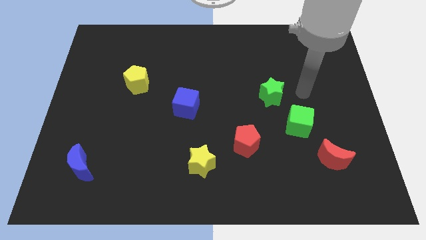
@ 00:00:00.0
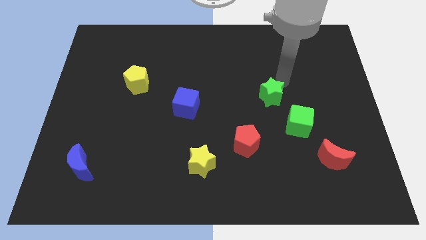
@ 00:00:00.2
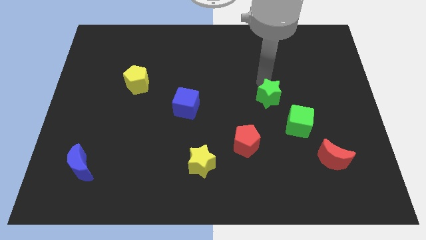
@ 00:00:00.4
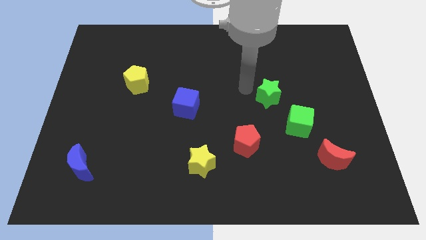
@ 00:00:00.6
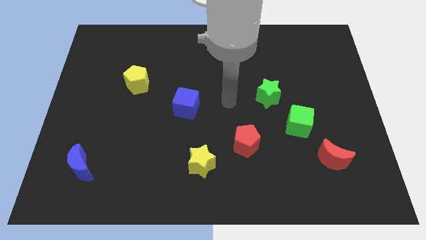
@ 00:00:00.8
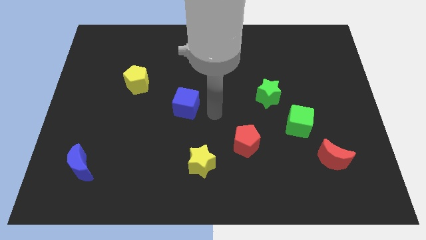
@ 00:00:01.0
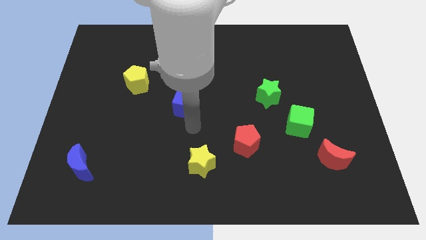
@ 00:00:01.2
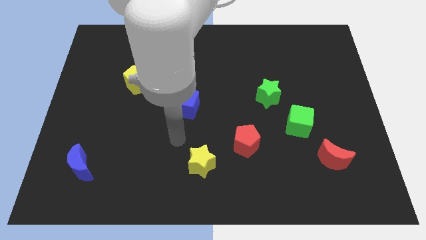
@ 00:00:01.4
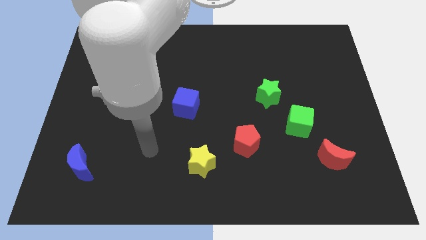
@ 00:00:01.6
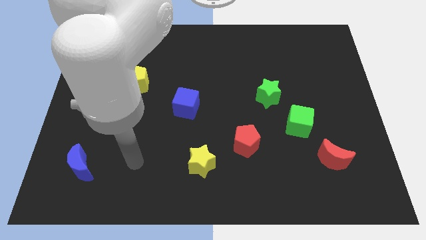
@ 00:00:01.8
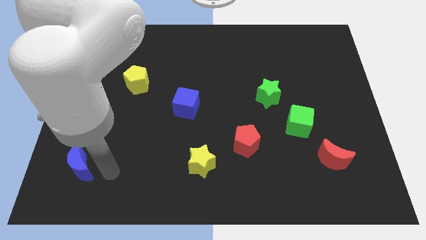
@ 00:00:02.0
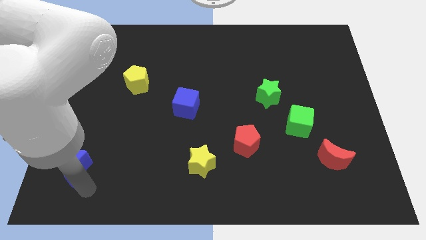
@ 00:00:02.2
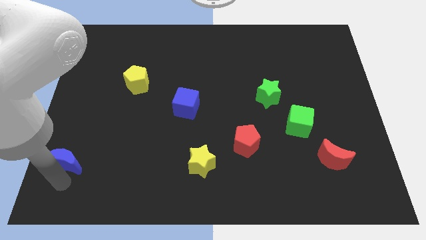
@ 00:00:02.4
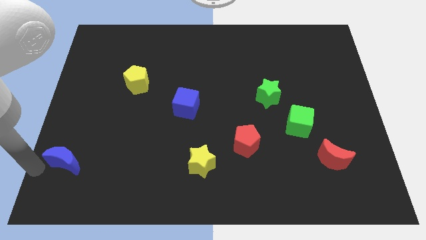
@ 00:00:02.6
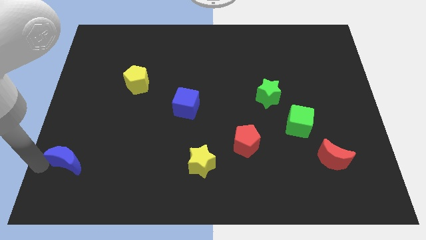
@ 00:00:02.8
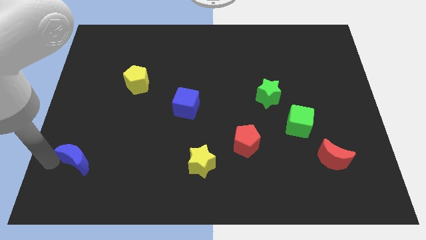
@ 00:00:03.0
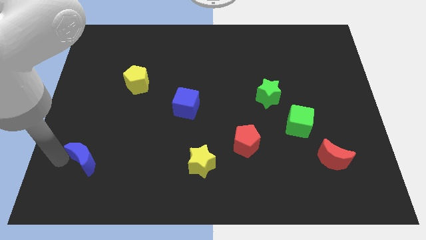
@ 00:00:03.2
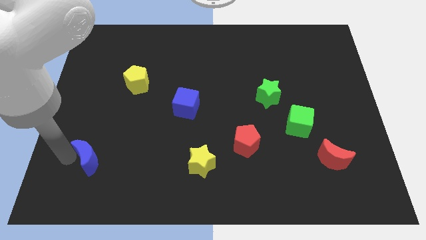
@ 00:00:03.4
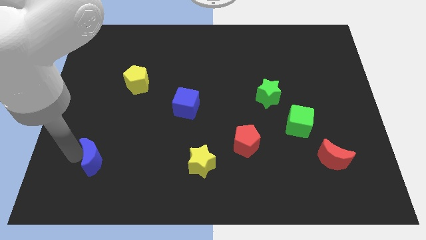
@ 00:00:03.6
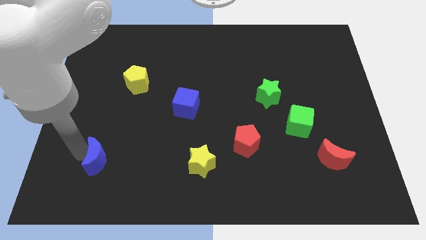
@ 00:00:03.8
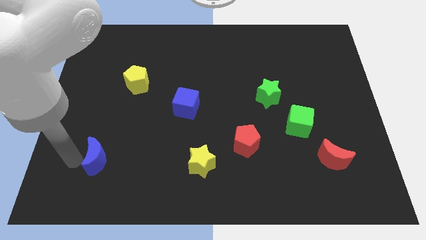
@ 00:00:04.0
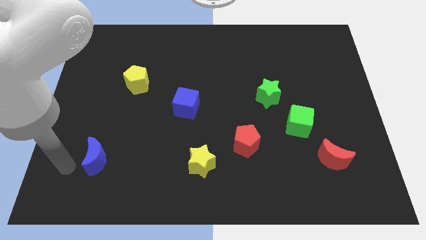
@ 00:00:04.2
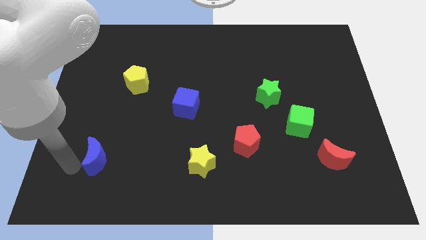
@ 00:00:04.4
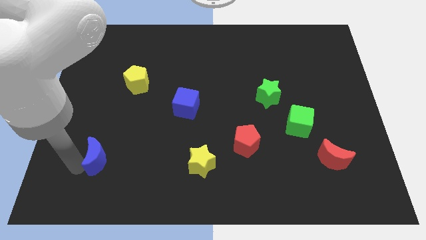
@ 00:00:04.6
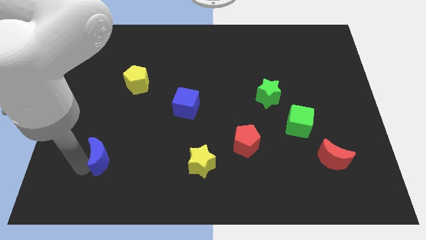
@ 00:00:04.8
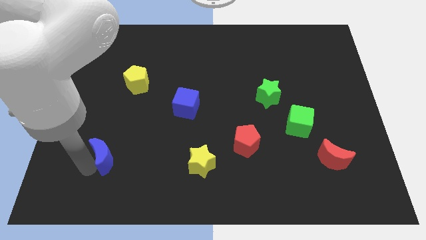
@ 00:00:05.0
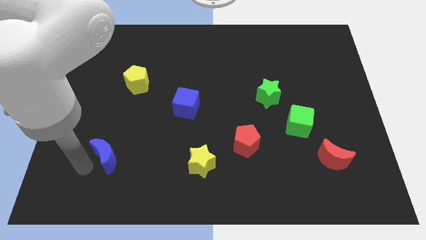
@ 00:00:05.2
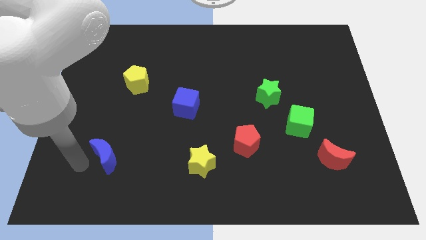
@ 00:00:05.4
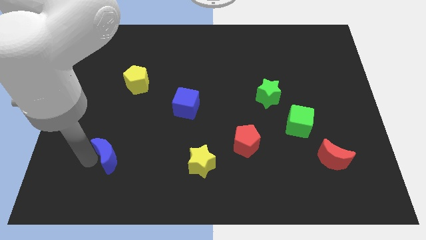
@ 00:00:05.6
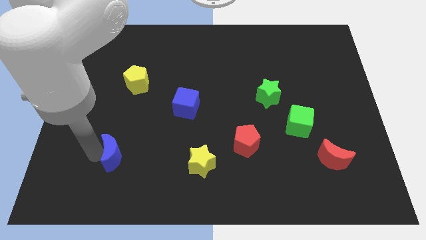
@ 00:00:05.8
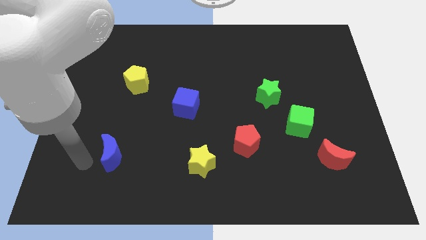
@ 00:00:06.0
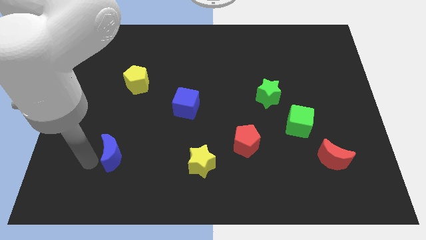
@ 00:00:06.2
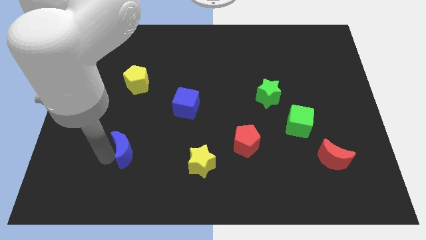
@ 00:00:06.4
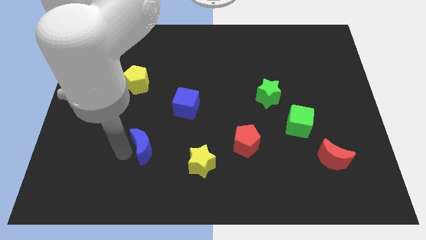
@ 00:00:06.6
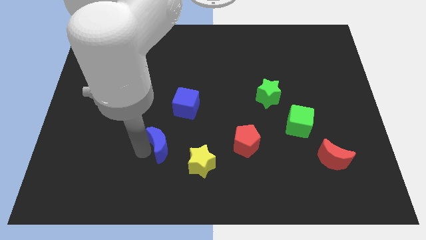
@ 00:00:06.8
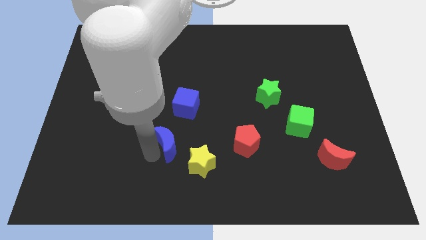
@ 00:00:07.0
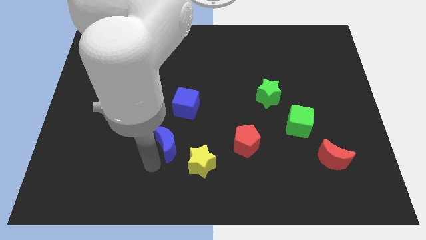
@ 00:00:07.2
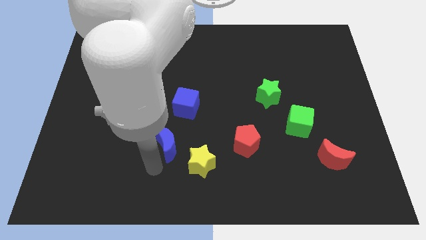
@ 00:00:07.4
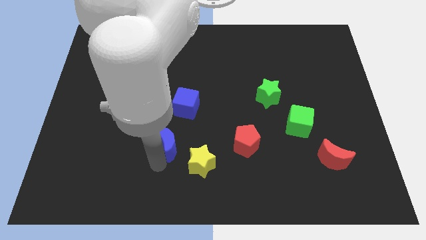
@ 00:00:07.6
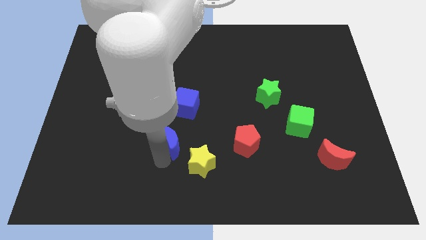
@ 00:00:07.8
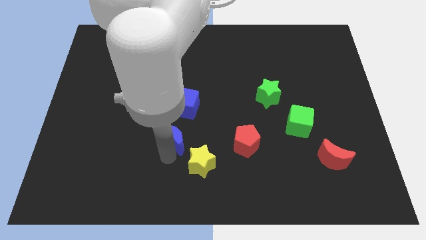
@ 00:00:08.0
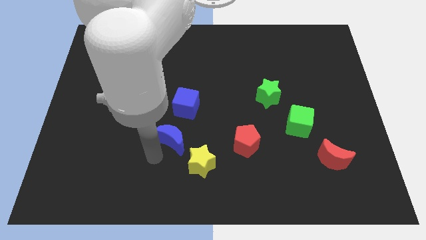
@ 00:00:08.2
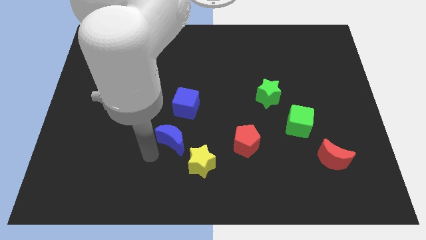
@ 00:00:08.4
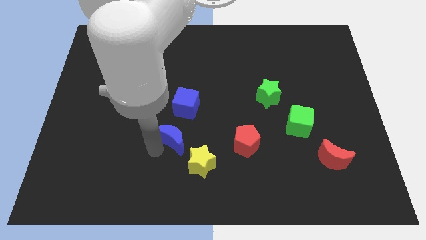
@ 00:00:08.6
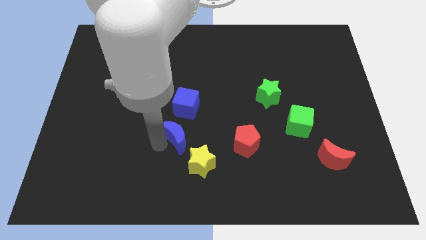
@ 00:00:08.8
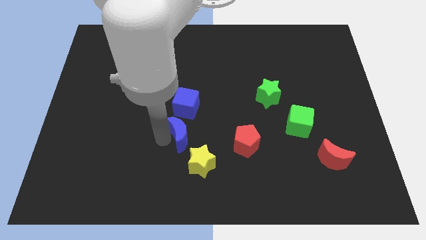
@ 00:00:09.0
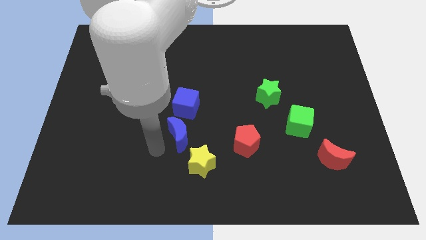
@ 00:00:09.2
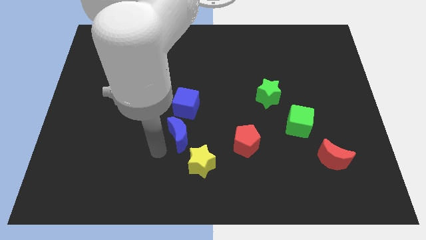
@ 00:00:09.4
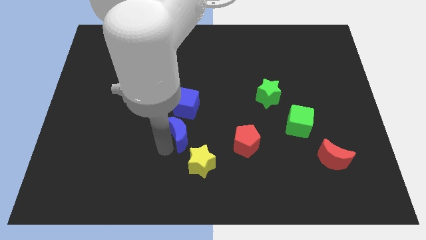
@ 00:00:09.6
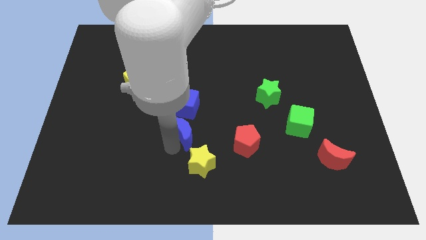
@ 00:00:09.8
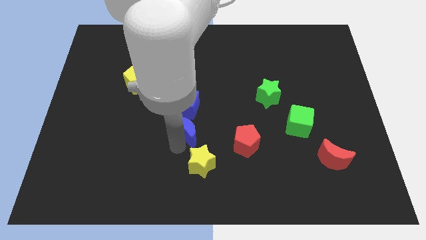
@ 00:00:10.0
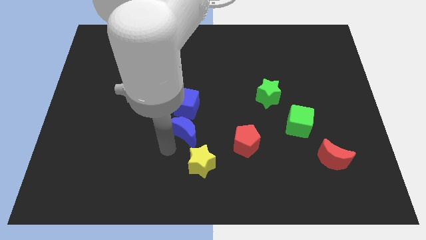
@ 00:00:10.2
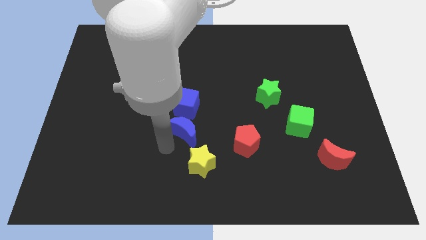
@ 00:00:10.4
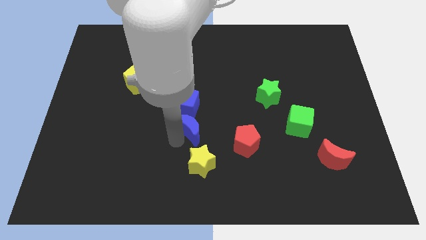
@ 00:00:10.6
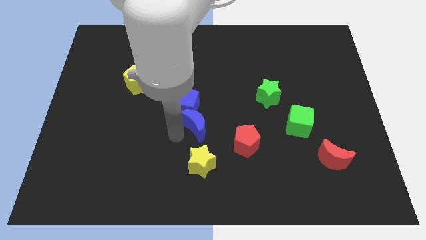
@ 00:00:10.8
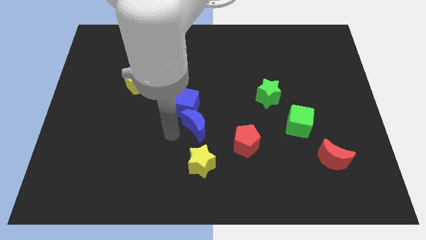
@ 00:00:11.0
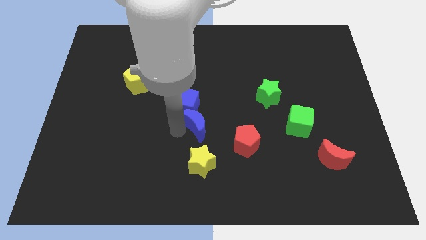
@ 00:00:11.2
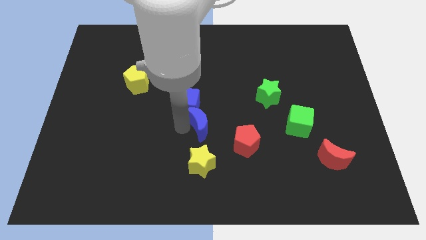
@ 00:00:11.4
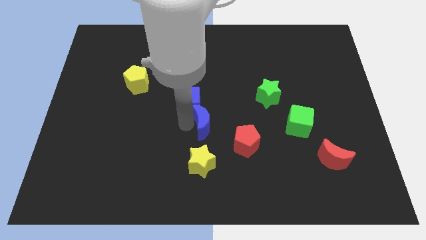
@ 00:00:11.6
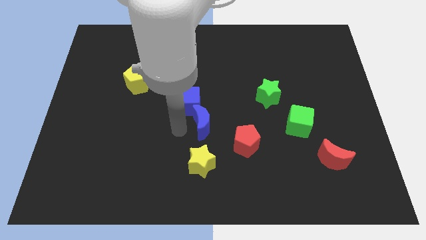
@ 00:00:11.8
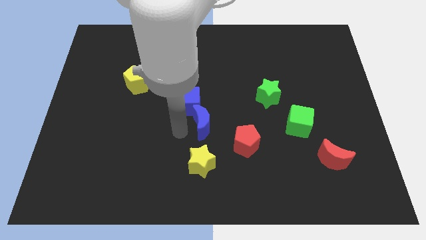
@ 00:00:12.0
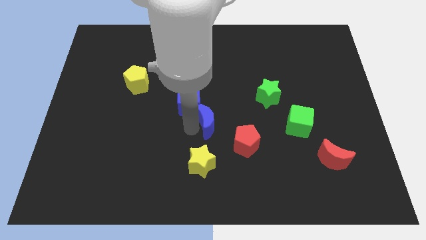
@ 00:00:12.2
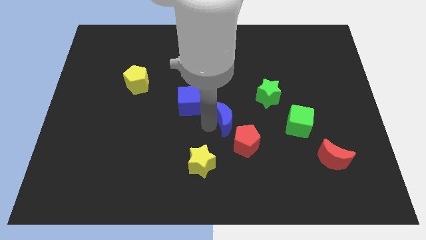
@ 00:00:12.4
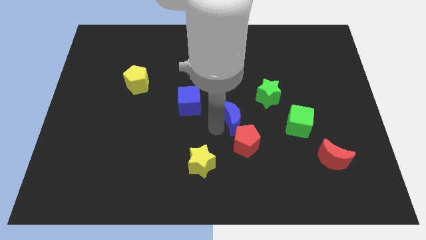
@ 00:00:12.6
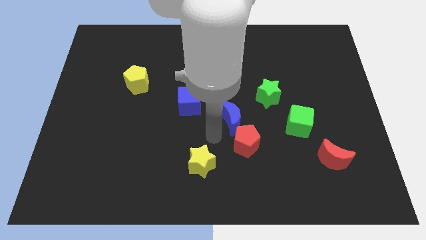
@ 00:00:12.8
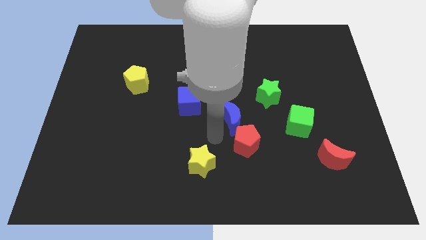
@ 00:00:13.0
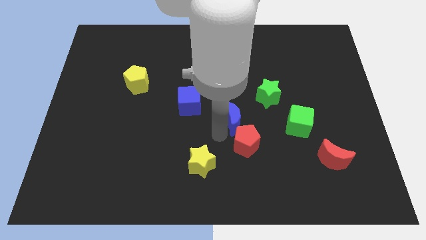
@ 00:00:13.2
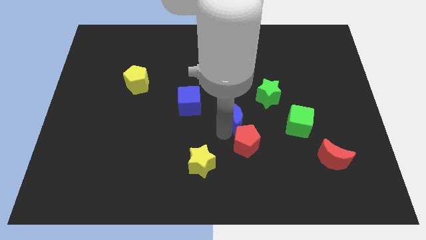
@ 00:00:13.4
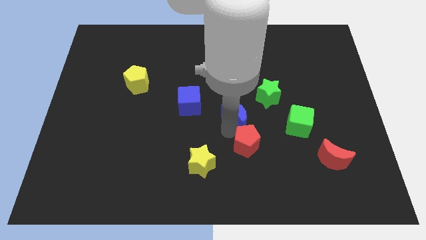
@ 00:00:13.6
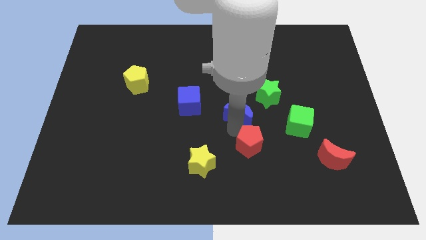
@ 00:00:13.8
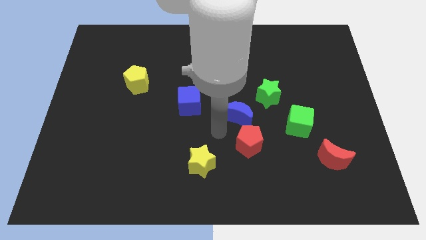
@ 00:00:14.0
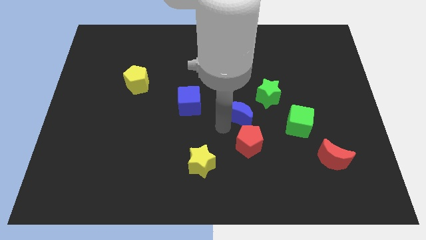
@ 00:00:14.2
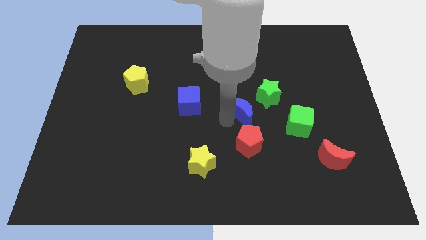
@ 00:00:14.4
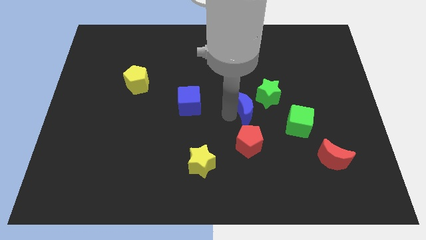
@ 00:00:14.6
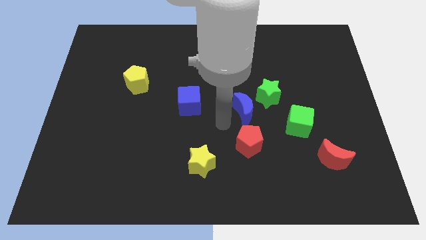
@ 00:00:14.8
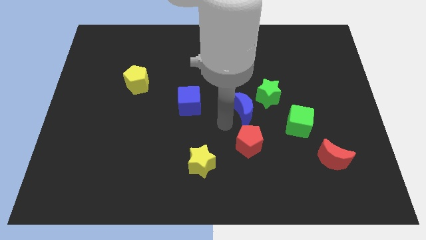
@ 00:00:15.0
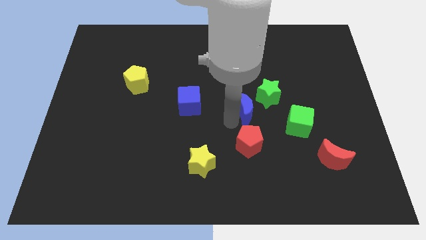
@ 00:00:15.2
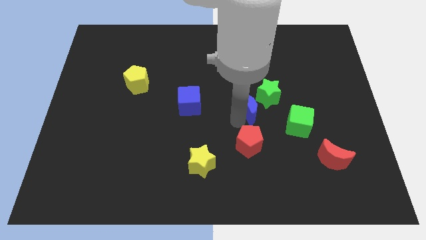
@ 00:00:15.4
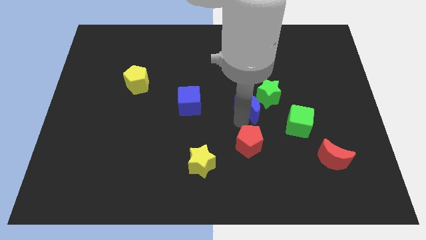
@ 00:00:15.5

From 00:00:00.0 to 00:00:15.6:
slide the blue moon to the green star
